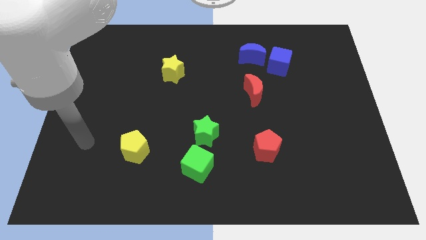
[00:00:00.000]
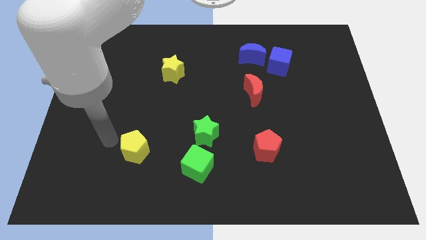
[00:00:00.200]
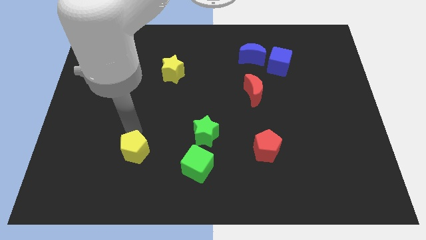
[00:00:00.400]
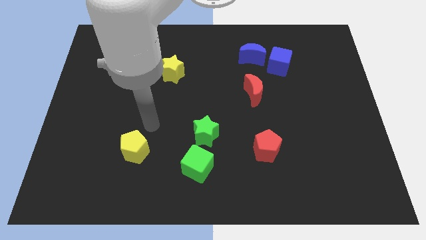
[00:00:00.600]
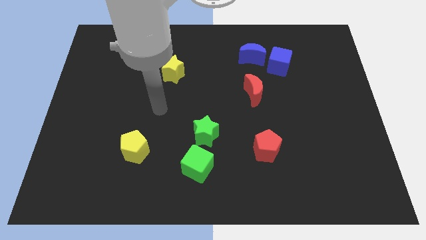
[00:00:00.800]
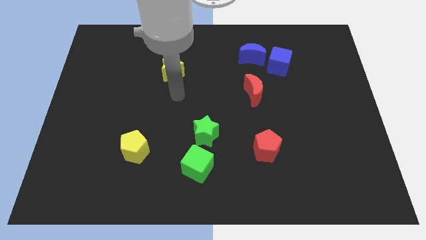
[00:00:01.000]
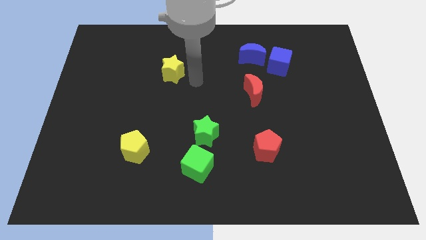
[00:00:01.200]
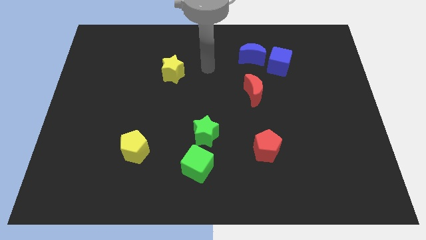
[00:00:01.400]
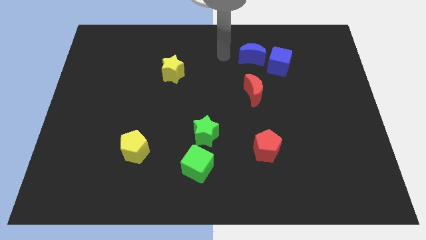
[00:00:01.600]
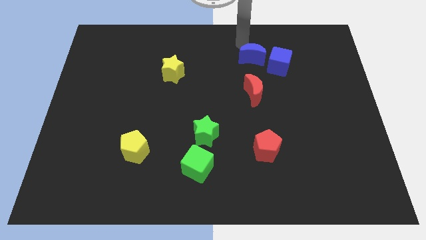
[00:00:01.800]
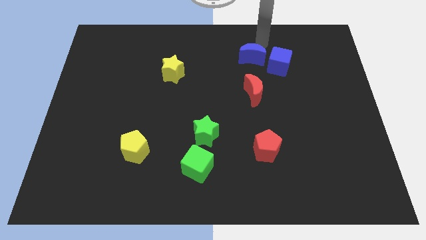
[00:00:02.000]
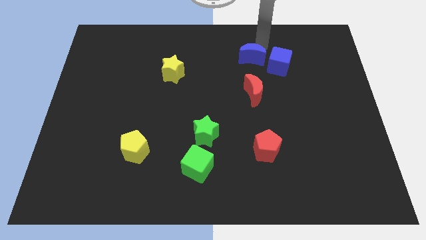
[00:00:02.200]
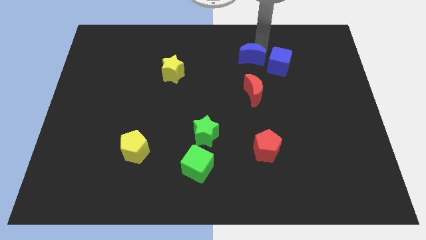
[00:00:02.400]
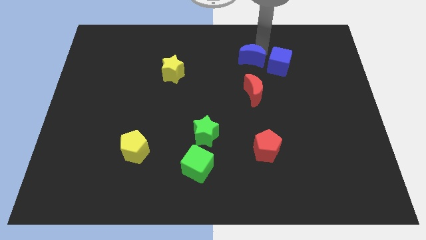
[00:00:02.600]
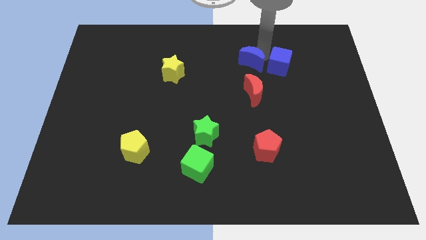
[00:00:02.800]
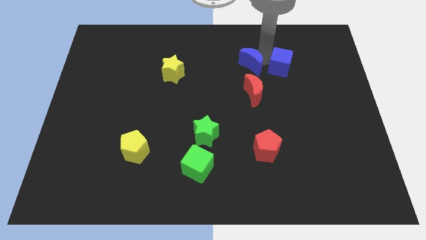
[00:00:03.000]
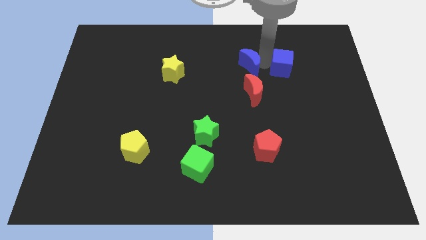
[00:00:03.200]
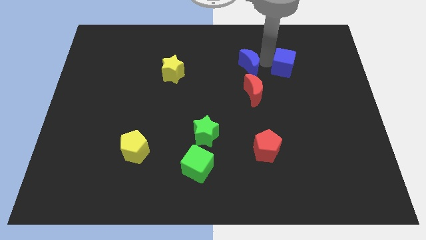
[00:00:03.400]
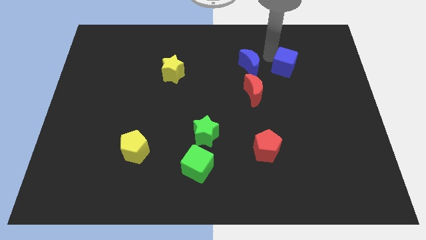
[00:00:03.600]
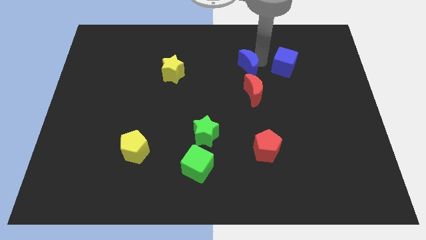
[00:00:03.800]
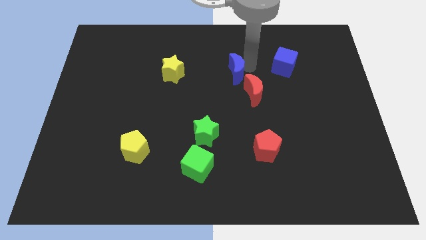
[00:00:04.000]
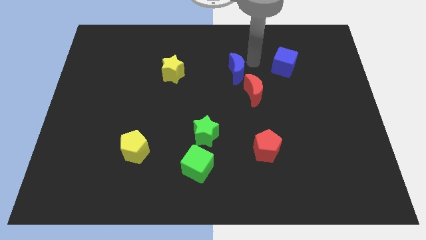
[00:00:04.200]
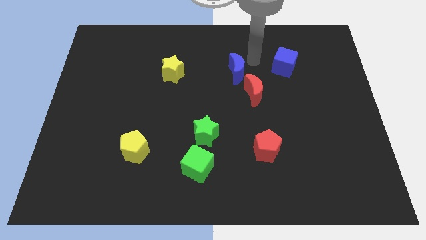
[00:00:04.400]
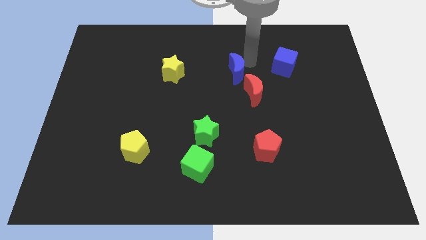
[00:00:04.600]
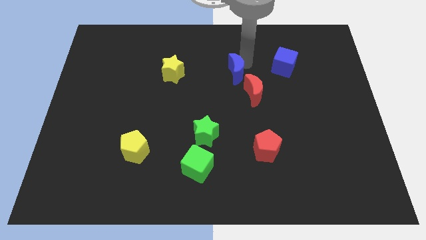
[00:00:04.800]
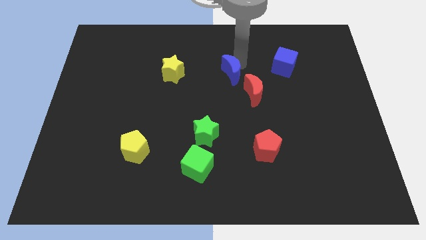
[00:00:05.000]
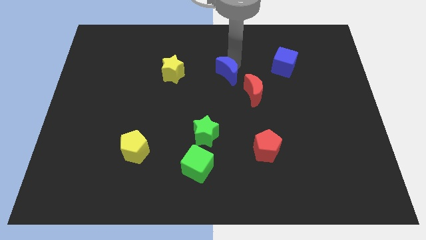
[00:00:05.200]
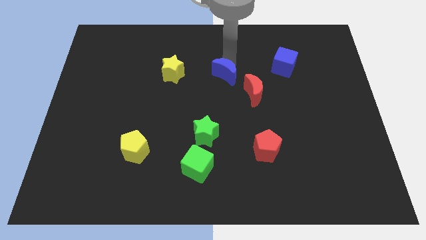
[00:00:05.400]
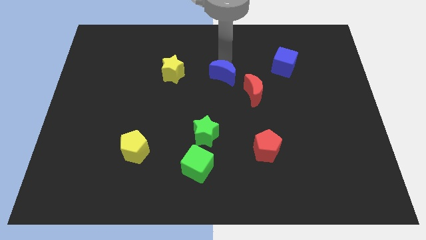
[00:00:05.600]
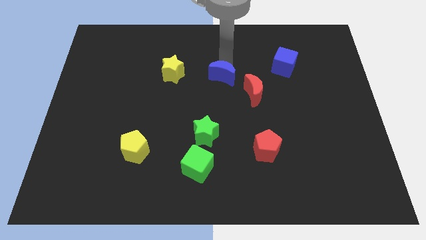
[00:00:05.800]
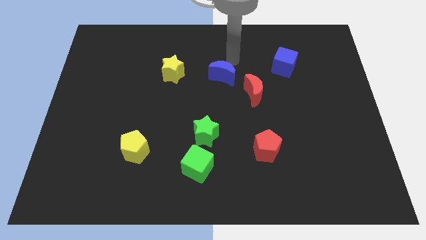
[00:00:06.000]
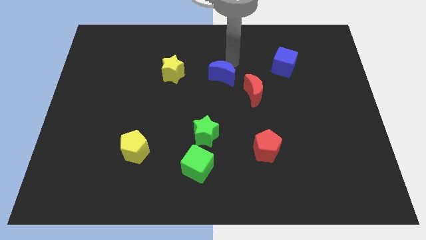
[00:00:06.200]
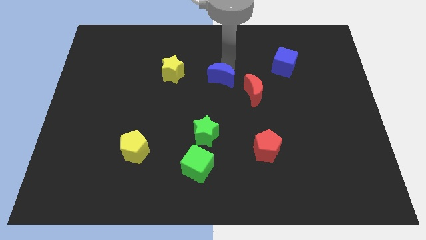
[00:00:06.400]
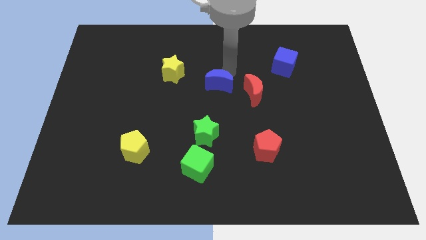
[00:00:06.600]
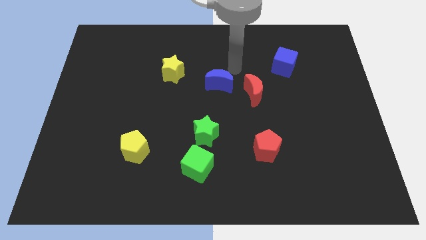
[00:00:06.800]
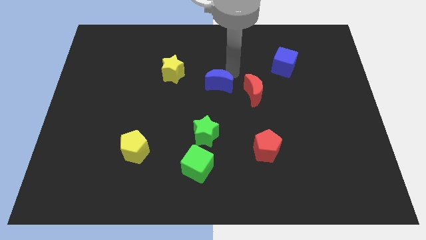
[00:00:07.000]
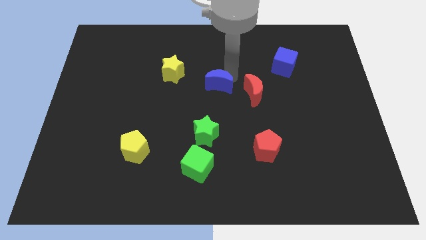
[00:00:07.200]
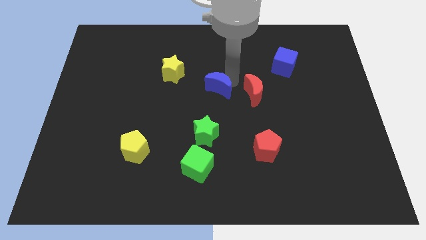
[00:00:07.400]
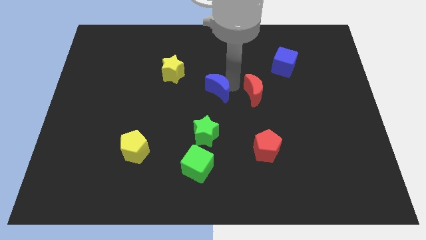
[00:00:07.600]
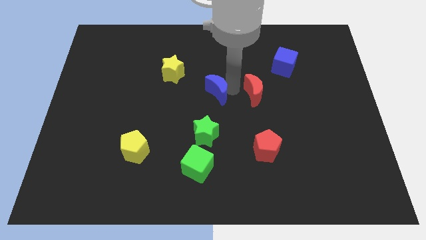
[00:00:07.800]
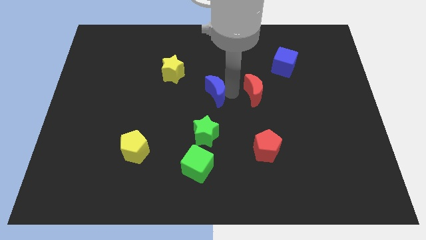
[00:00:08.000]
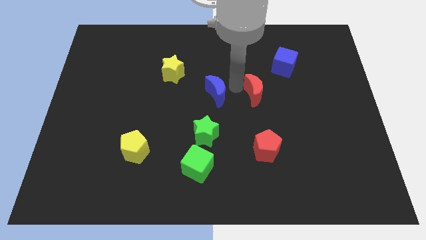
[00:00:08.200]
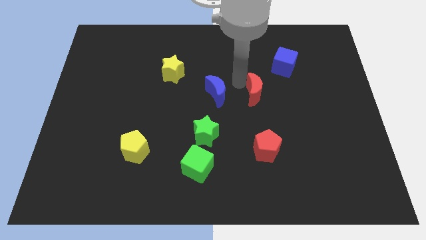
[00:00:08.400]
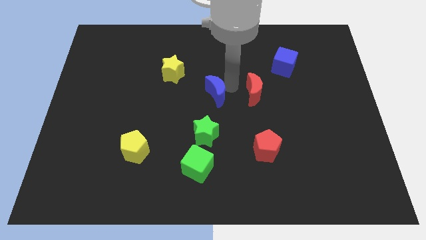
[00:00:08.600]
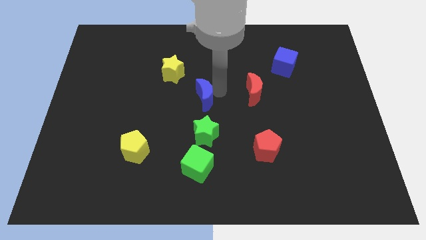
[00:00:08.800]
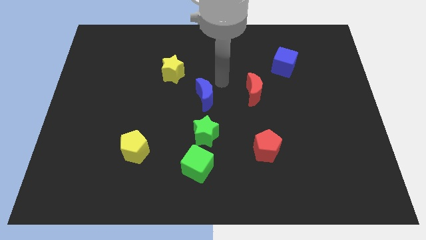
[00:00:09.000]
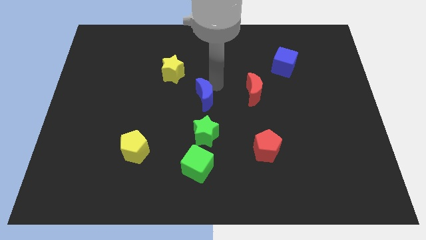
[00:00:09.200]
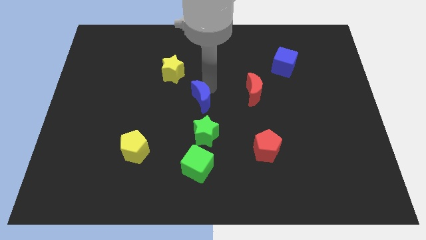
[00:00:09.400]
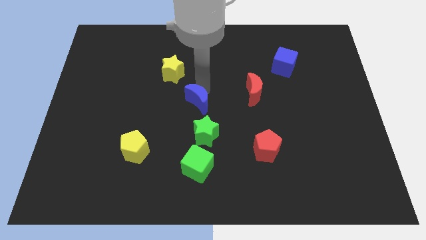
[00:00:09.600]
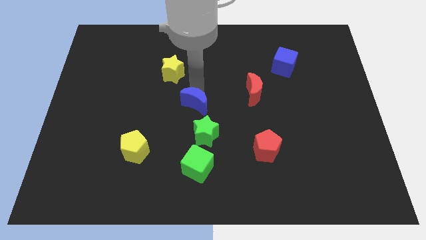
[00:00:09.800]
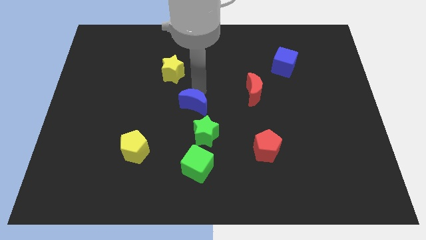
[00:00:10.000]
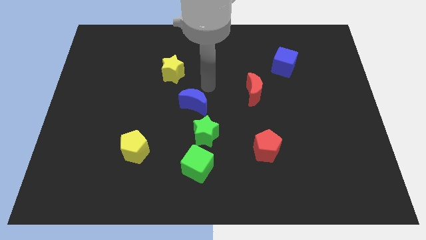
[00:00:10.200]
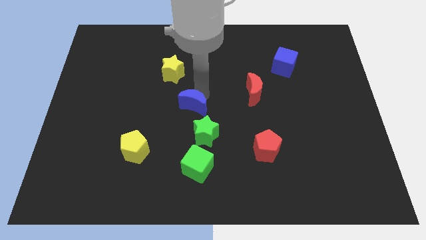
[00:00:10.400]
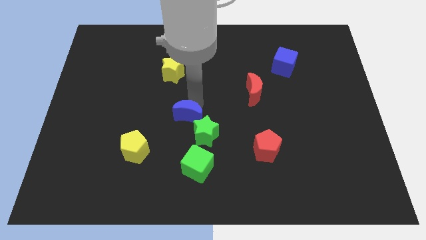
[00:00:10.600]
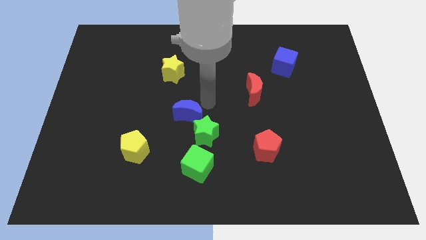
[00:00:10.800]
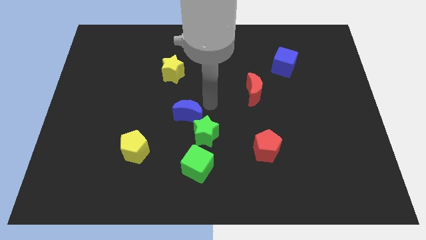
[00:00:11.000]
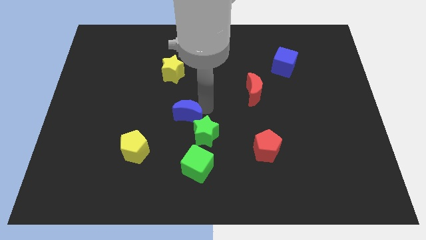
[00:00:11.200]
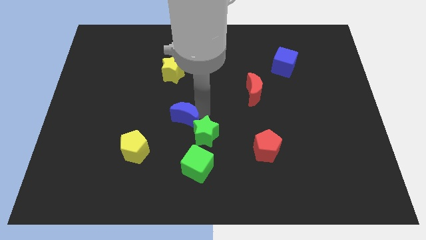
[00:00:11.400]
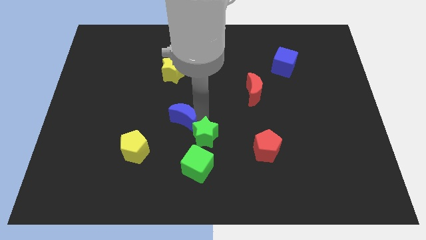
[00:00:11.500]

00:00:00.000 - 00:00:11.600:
slide the blue moon diagonally up and to the right of the yellow pentagon
